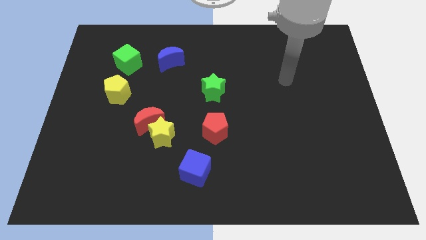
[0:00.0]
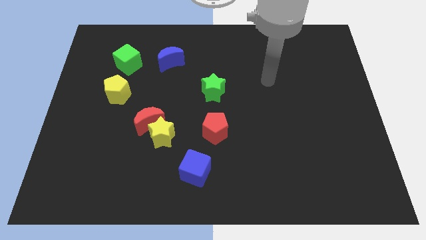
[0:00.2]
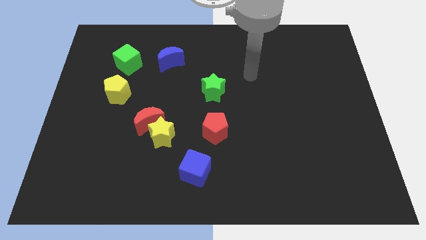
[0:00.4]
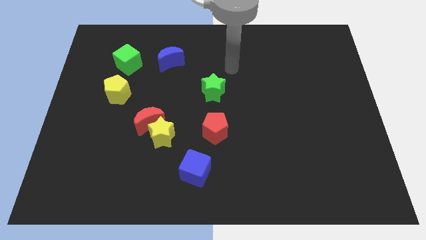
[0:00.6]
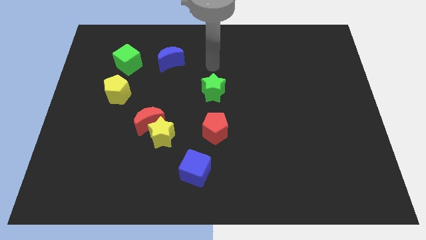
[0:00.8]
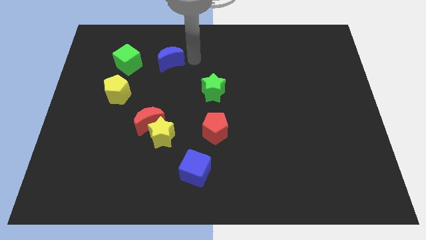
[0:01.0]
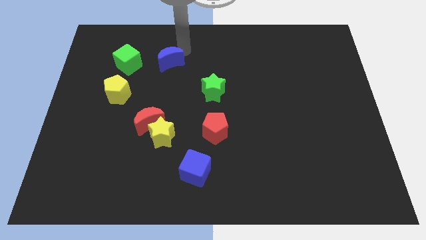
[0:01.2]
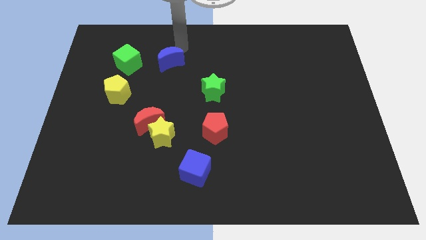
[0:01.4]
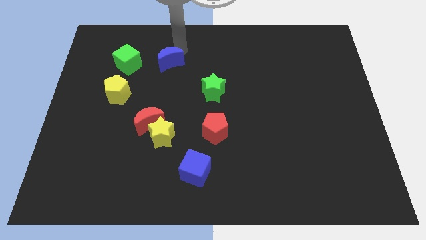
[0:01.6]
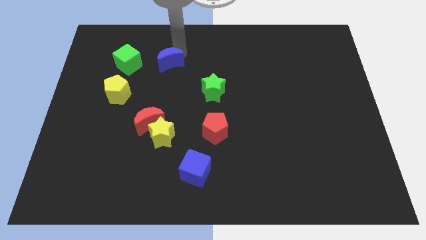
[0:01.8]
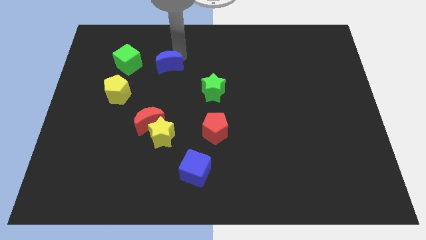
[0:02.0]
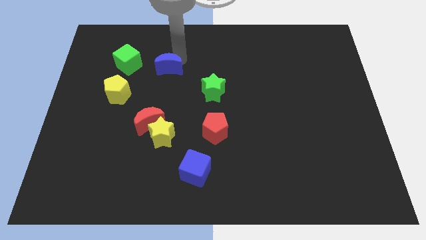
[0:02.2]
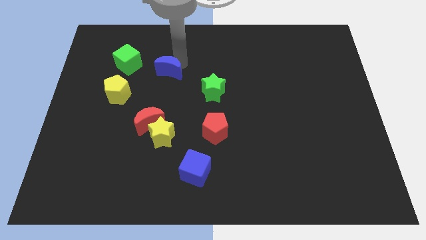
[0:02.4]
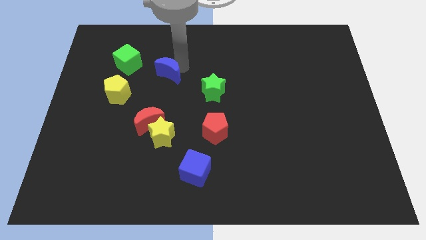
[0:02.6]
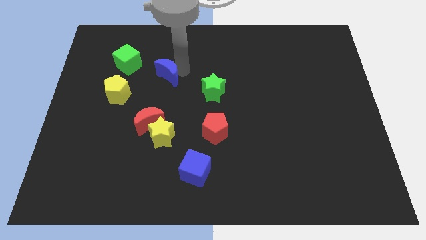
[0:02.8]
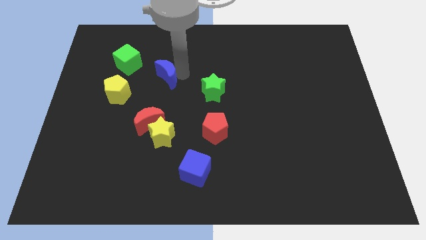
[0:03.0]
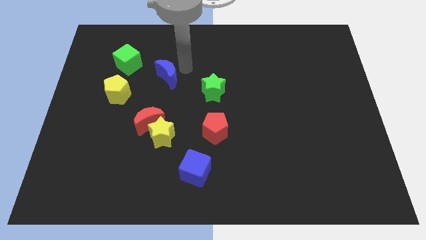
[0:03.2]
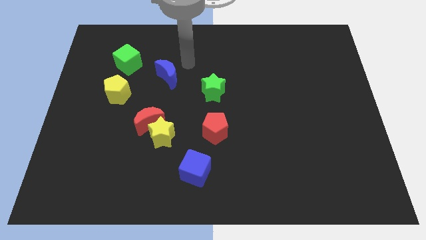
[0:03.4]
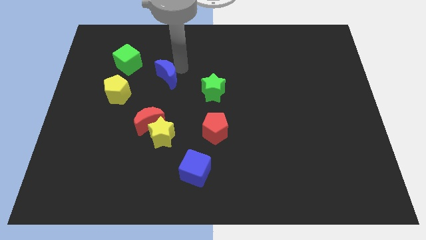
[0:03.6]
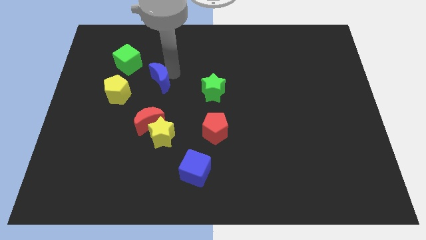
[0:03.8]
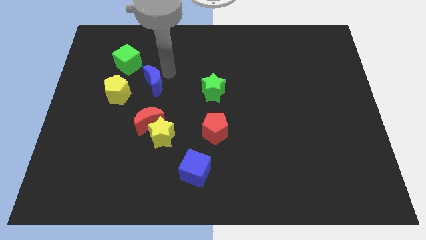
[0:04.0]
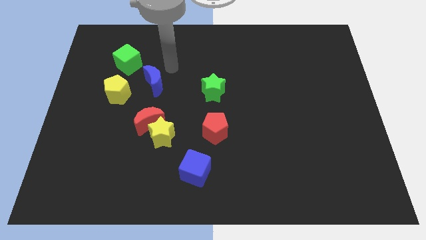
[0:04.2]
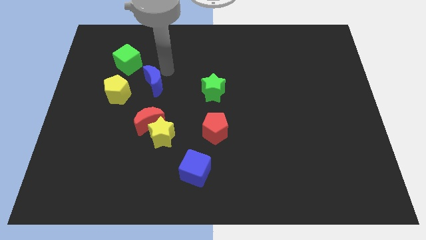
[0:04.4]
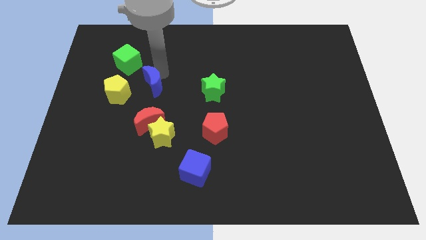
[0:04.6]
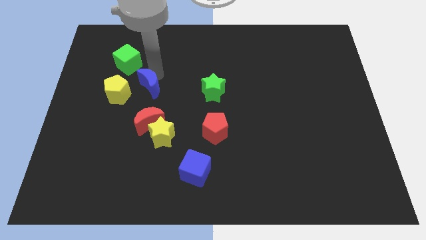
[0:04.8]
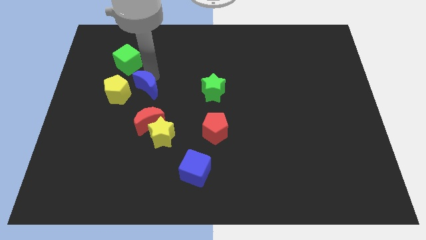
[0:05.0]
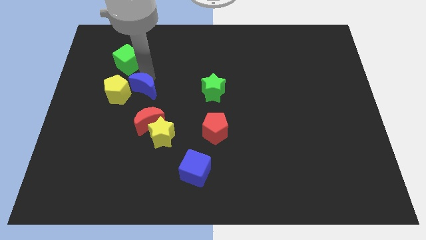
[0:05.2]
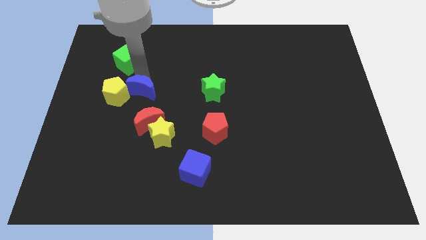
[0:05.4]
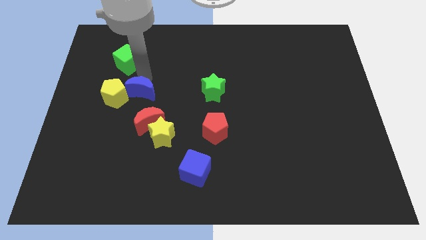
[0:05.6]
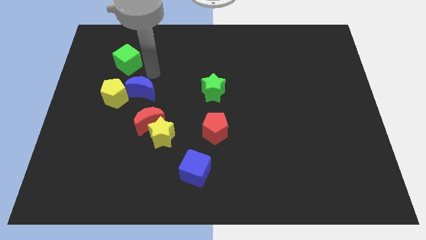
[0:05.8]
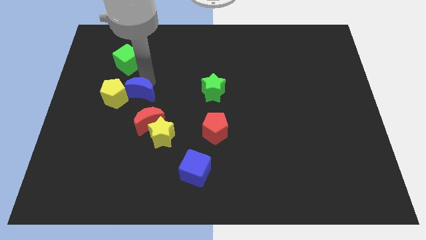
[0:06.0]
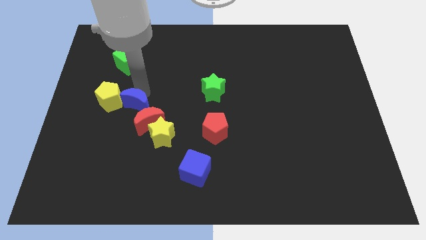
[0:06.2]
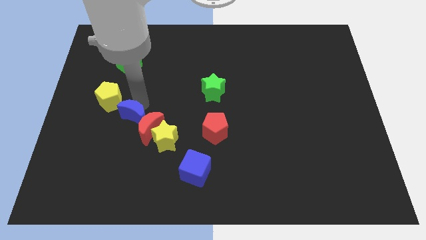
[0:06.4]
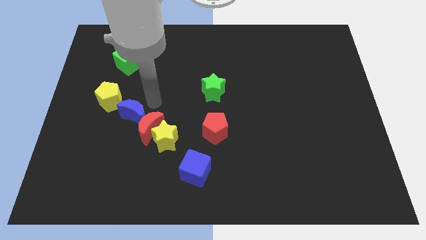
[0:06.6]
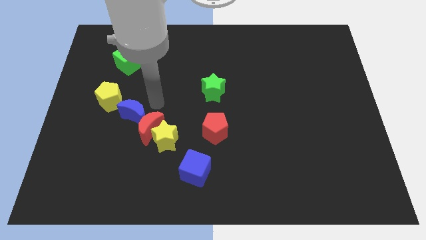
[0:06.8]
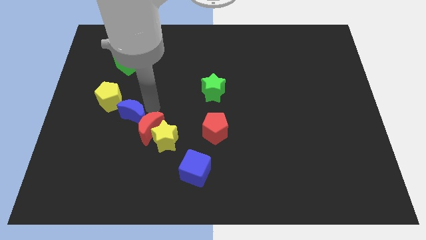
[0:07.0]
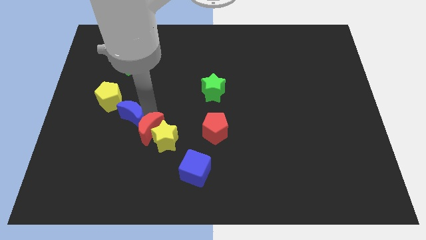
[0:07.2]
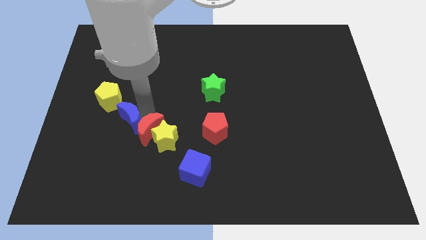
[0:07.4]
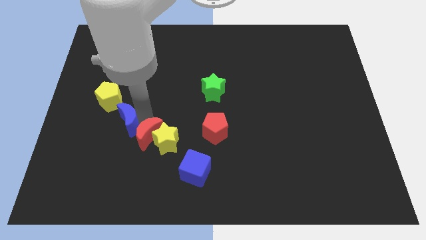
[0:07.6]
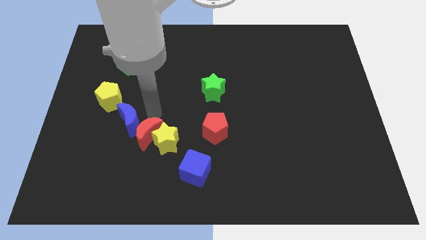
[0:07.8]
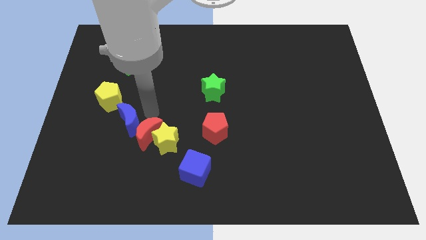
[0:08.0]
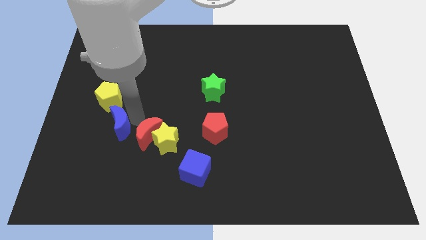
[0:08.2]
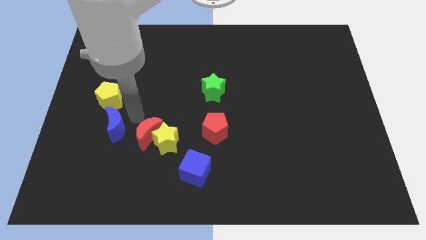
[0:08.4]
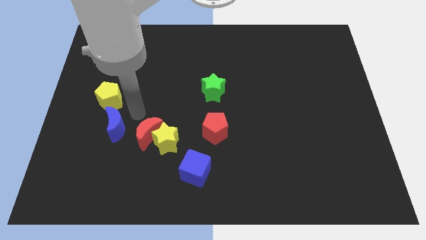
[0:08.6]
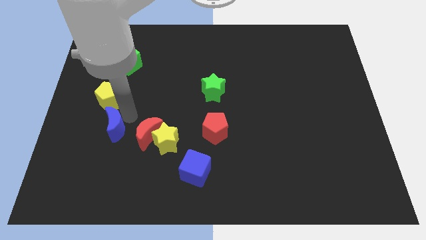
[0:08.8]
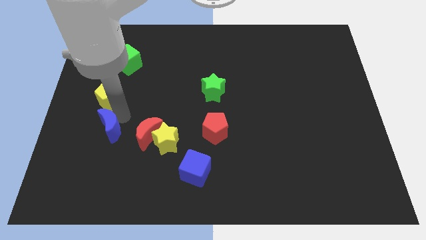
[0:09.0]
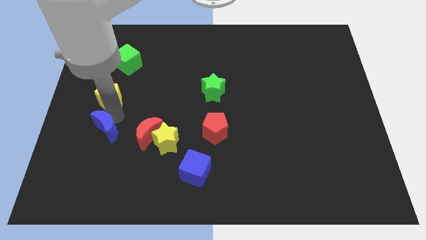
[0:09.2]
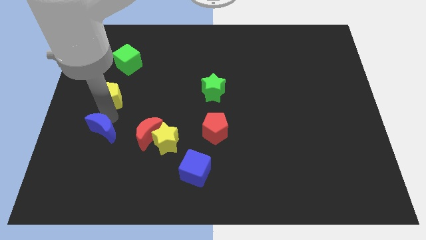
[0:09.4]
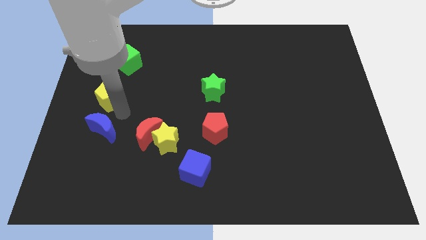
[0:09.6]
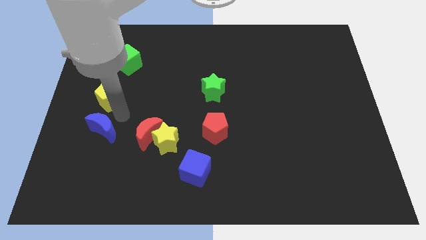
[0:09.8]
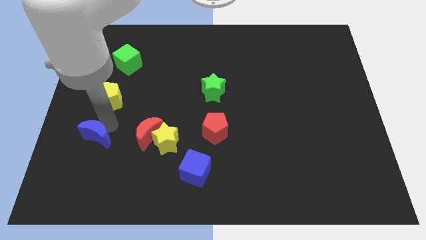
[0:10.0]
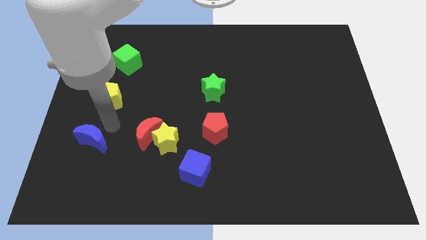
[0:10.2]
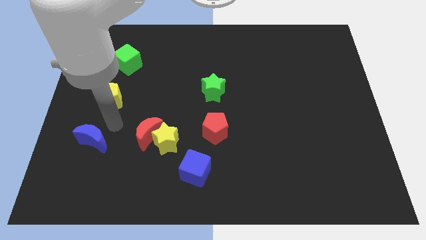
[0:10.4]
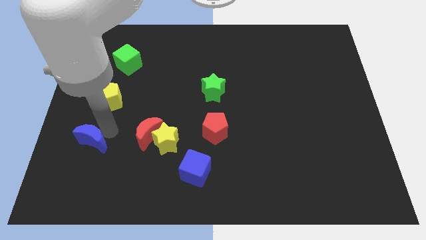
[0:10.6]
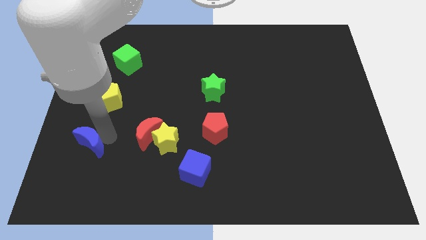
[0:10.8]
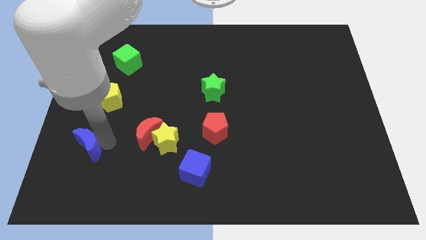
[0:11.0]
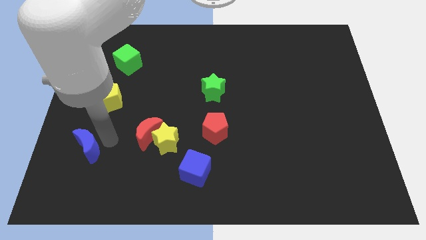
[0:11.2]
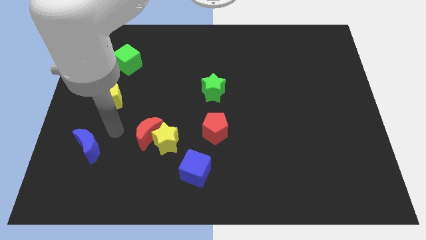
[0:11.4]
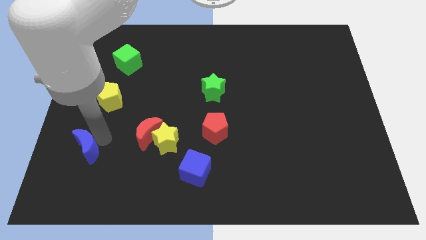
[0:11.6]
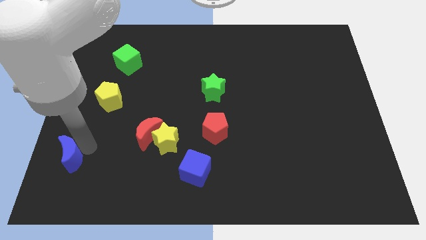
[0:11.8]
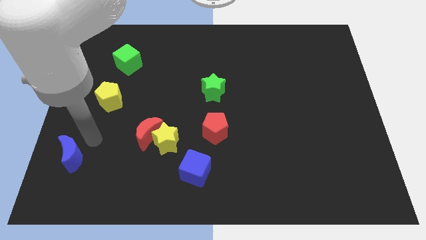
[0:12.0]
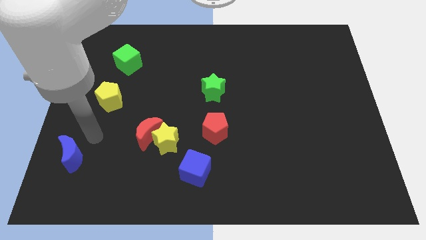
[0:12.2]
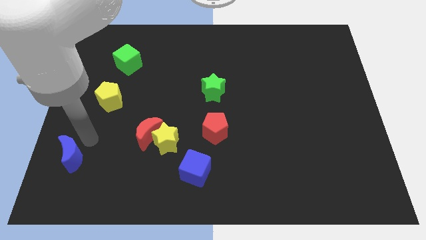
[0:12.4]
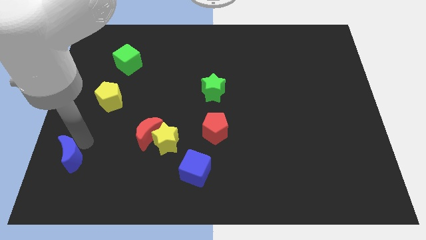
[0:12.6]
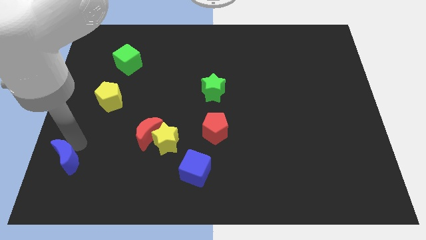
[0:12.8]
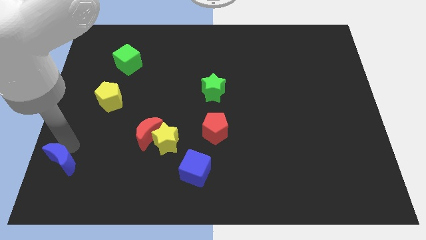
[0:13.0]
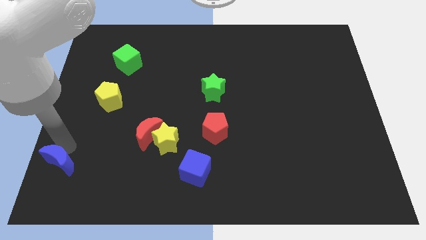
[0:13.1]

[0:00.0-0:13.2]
push the blue moon to the bottom left corner
